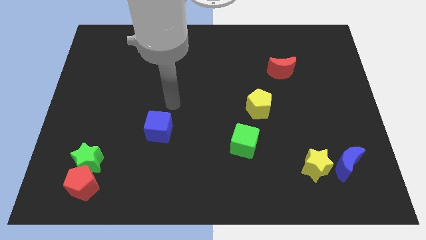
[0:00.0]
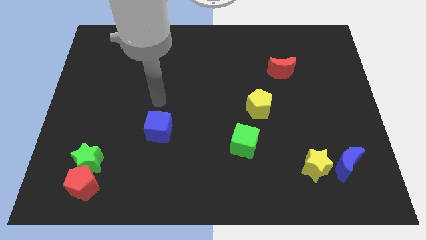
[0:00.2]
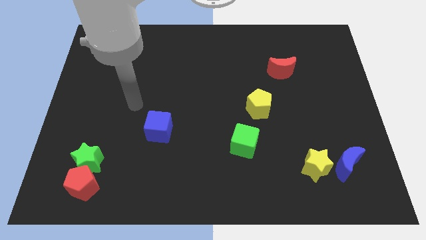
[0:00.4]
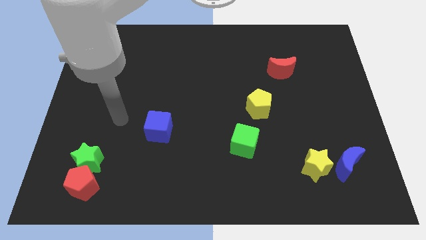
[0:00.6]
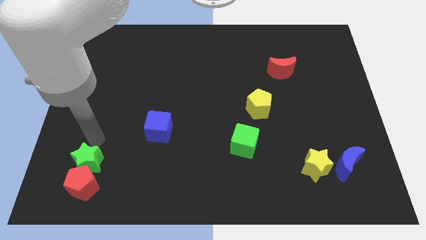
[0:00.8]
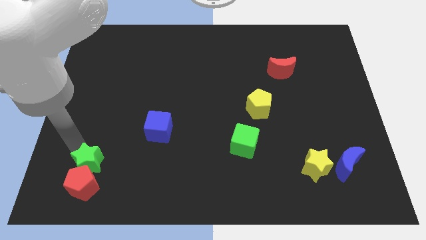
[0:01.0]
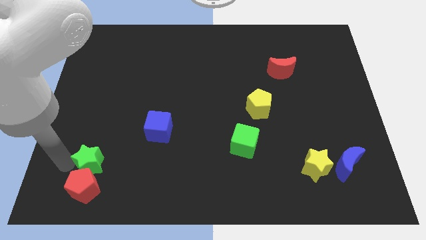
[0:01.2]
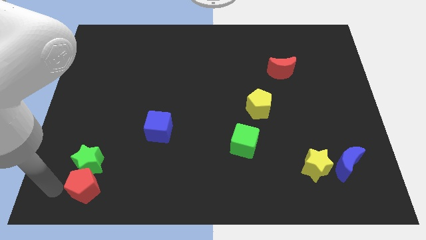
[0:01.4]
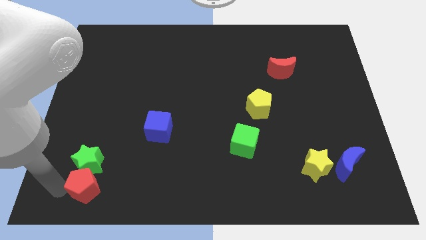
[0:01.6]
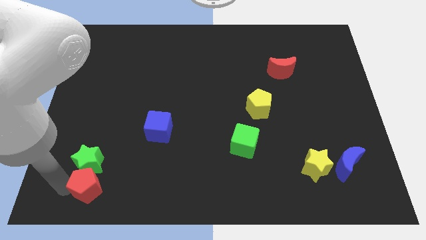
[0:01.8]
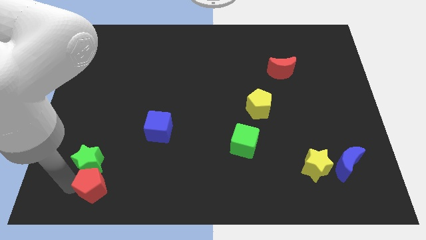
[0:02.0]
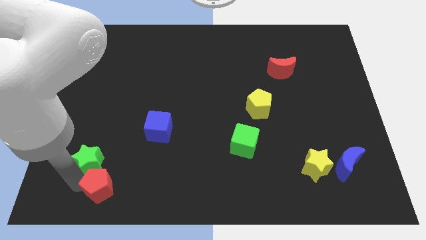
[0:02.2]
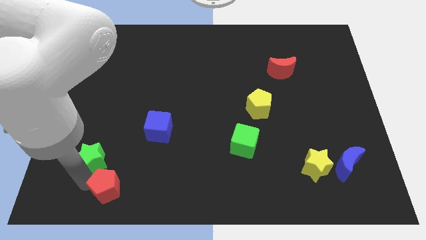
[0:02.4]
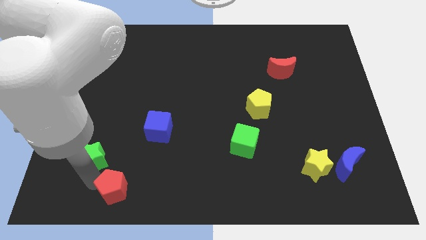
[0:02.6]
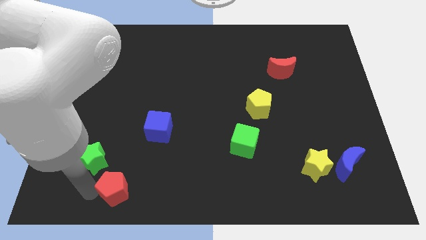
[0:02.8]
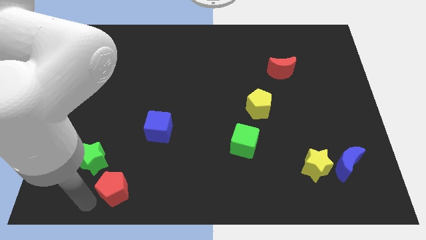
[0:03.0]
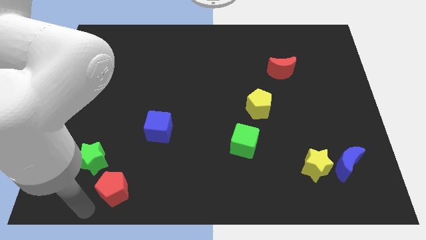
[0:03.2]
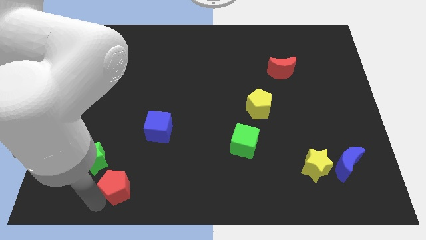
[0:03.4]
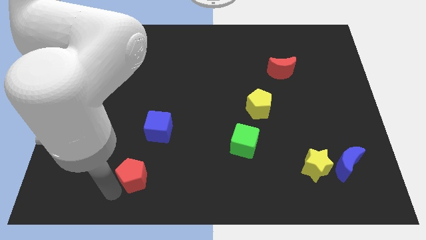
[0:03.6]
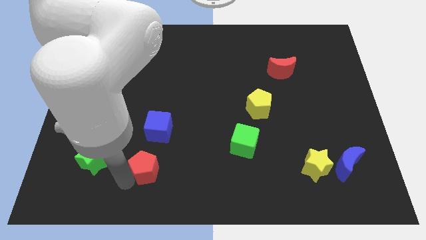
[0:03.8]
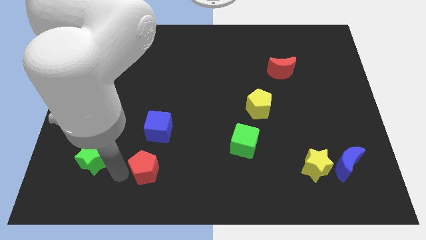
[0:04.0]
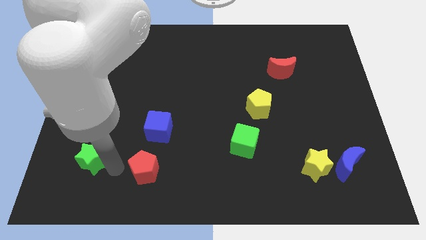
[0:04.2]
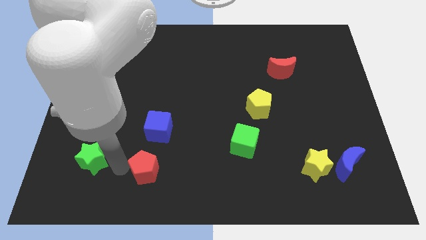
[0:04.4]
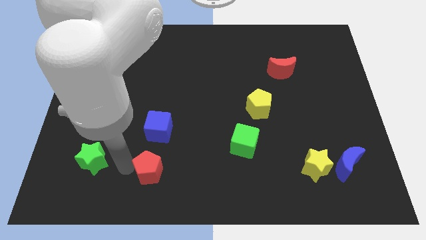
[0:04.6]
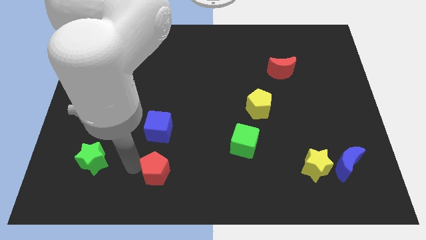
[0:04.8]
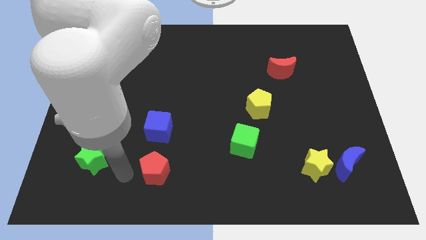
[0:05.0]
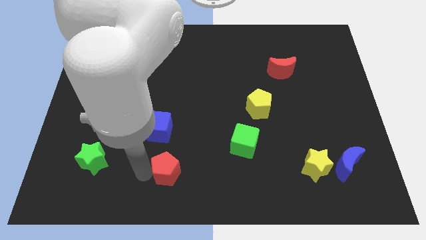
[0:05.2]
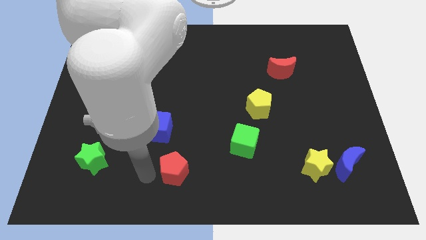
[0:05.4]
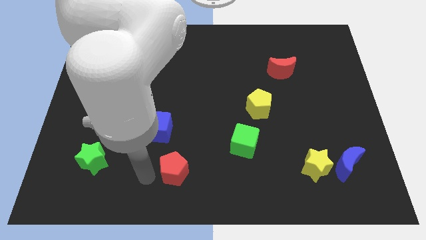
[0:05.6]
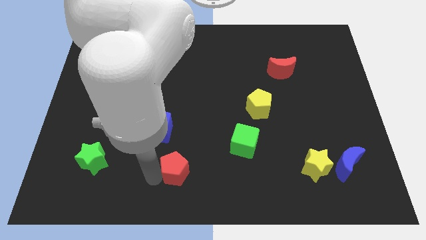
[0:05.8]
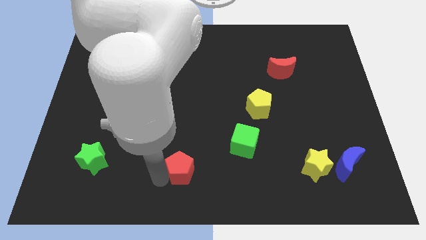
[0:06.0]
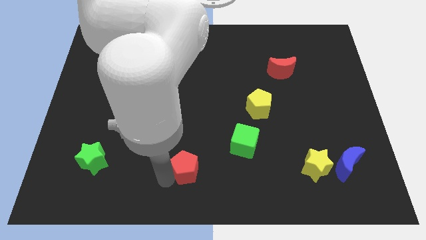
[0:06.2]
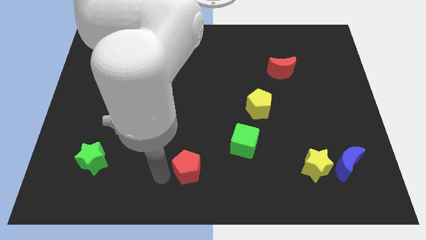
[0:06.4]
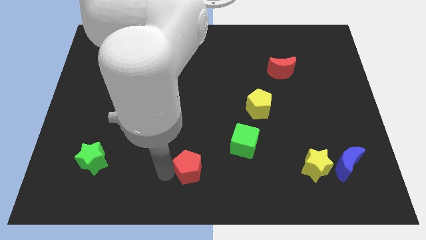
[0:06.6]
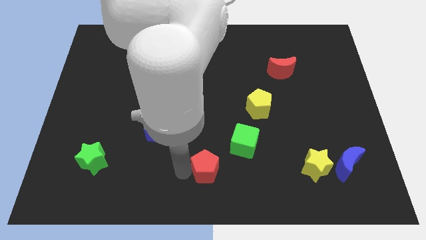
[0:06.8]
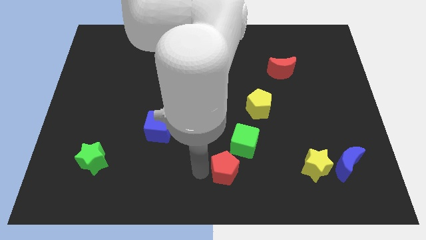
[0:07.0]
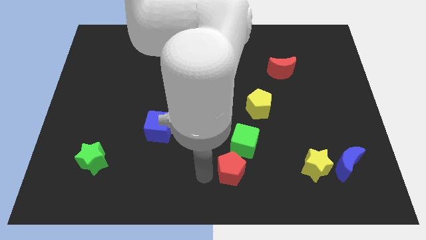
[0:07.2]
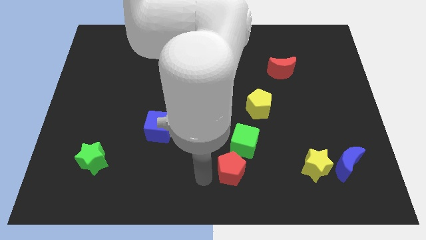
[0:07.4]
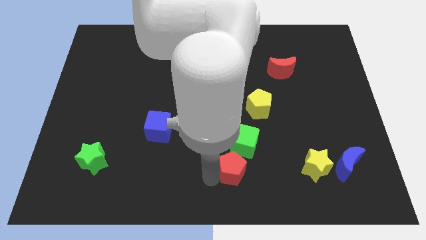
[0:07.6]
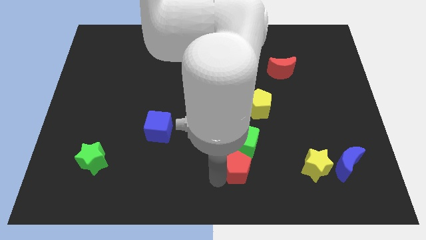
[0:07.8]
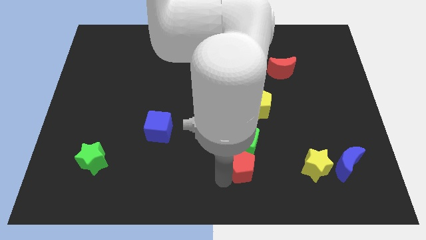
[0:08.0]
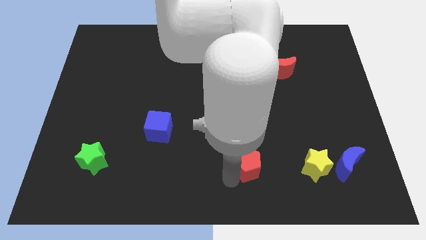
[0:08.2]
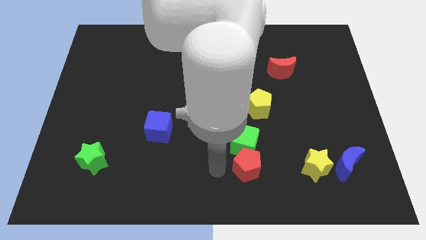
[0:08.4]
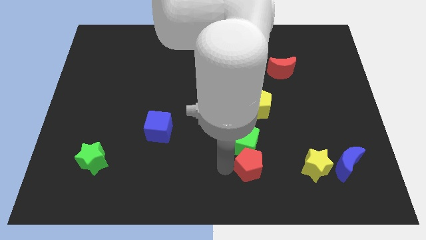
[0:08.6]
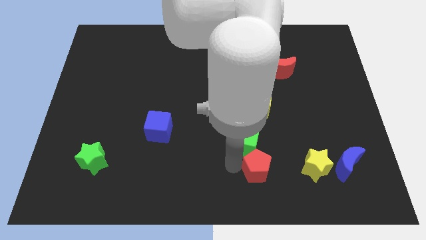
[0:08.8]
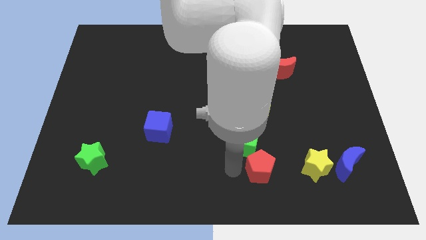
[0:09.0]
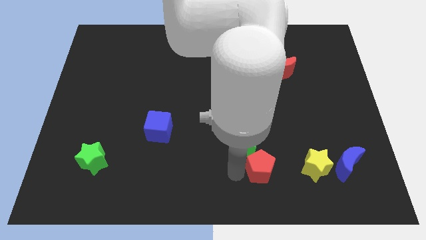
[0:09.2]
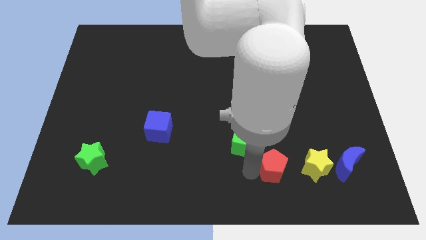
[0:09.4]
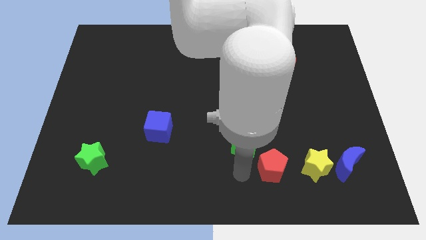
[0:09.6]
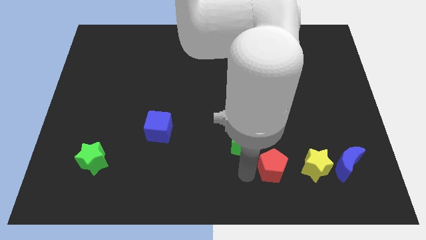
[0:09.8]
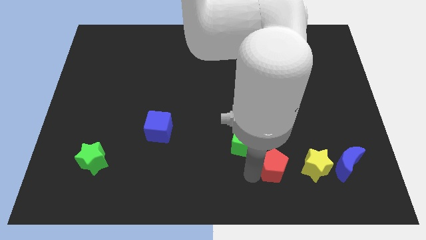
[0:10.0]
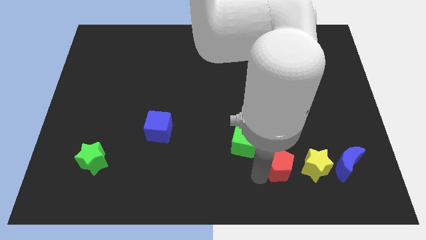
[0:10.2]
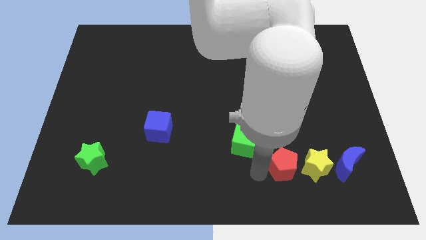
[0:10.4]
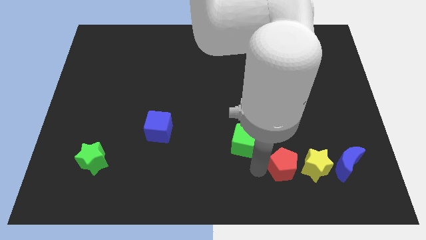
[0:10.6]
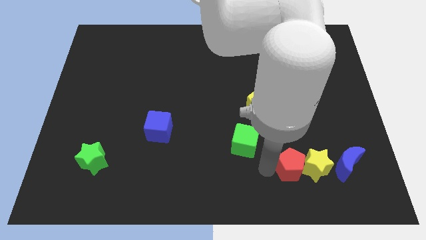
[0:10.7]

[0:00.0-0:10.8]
push the red pentagon next to the yellow star

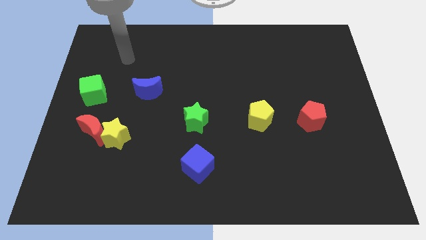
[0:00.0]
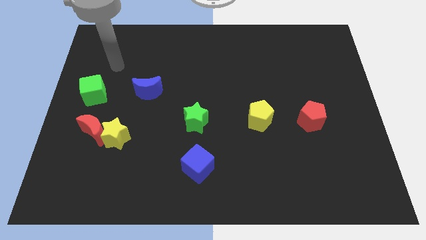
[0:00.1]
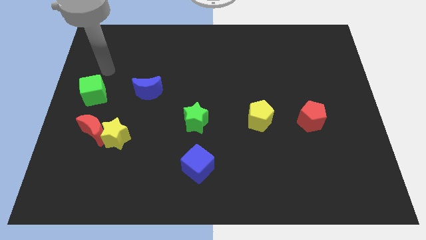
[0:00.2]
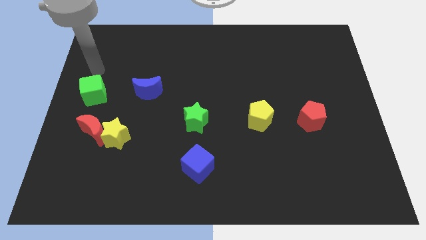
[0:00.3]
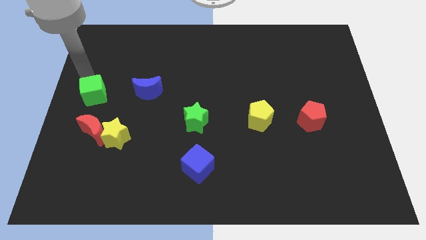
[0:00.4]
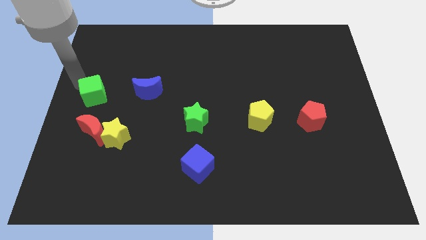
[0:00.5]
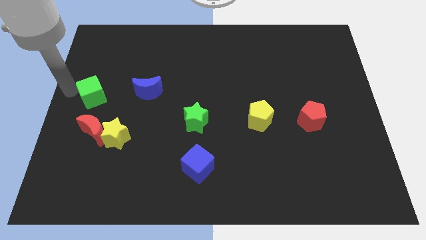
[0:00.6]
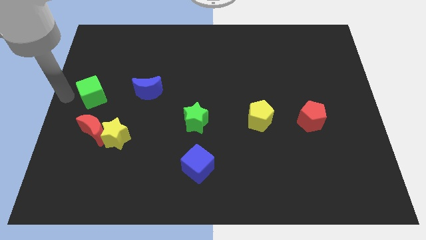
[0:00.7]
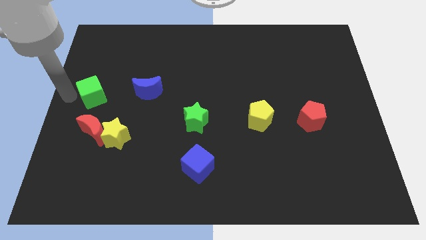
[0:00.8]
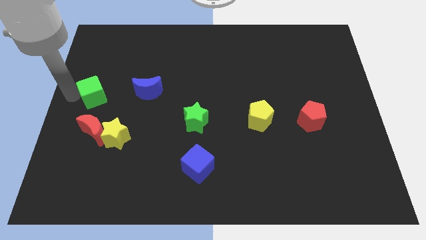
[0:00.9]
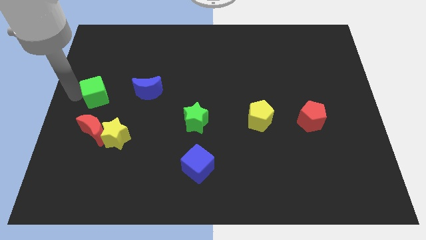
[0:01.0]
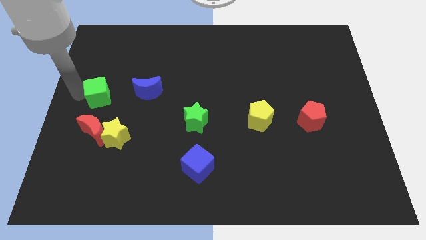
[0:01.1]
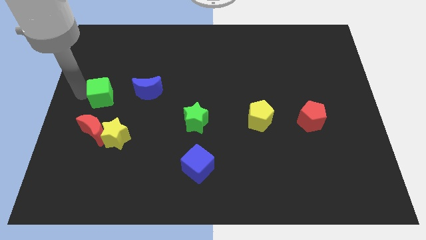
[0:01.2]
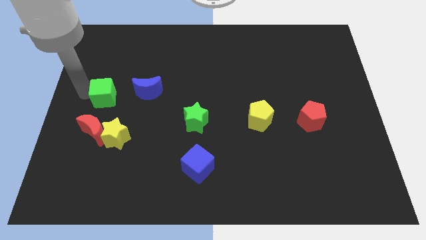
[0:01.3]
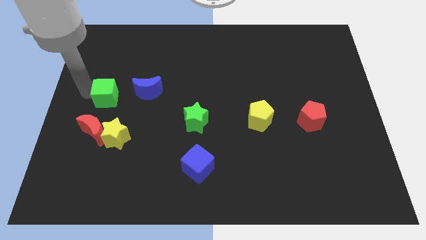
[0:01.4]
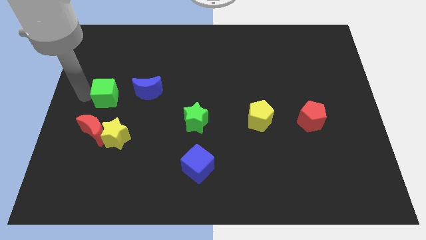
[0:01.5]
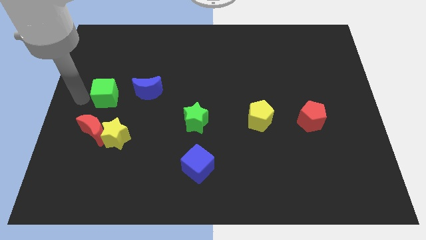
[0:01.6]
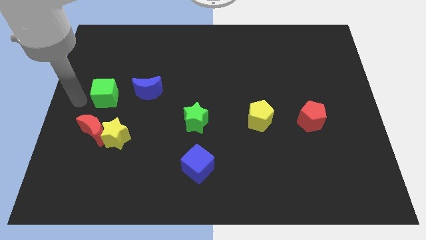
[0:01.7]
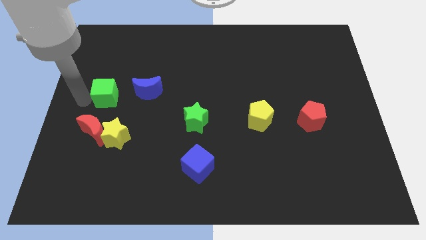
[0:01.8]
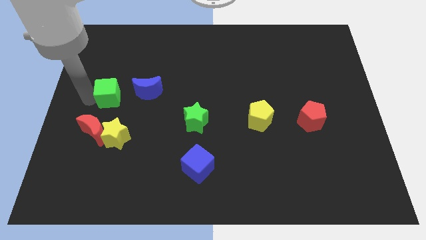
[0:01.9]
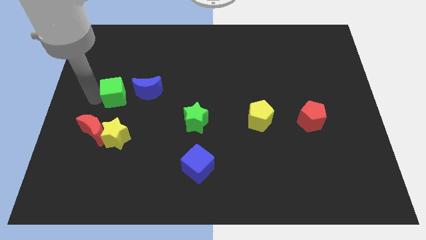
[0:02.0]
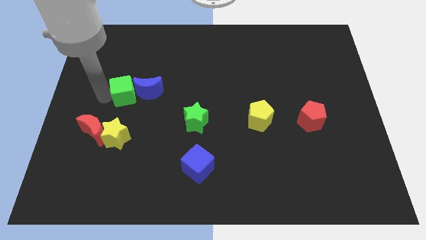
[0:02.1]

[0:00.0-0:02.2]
put the green cube towards the blue moon
